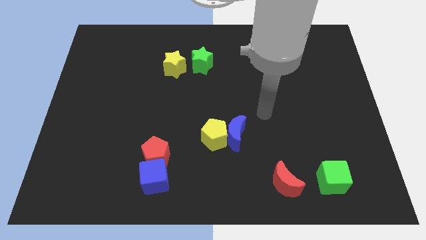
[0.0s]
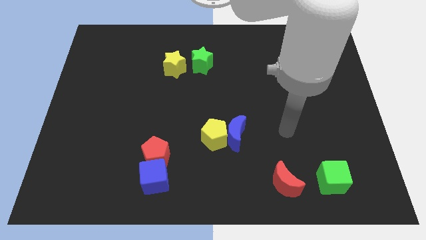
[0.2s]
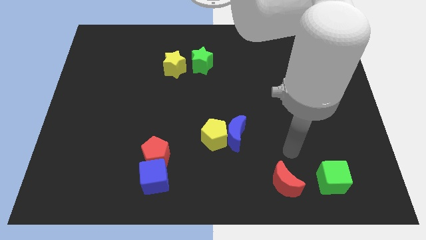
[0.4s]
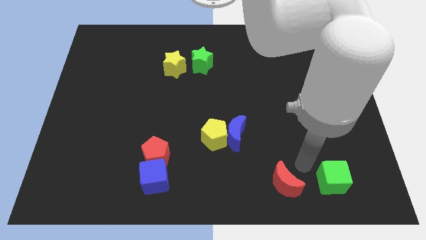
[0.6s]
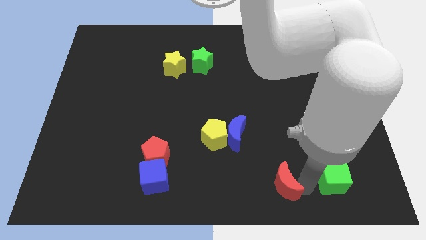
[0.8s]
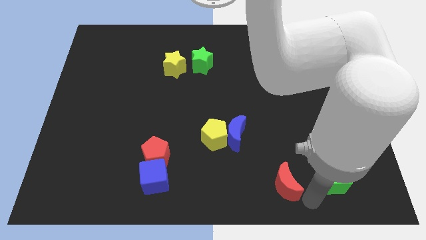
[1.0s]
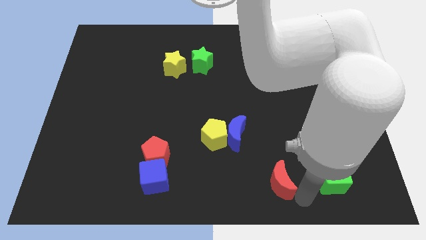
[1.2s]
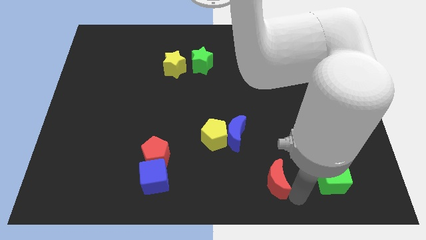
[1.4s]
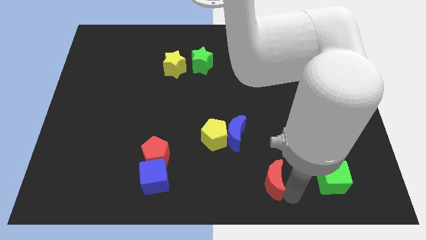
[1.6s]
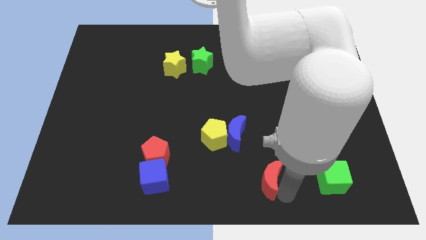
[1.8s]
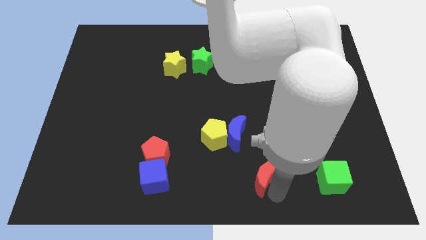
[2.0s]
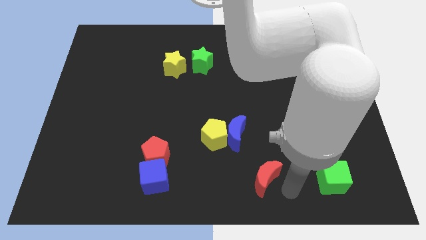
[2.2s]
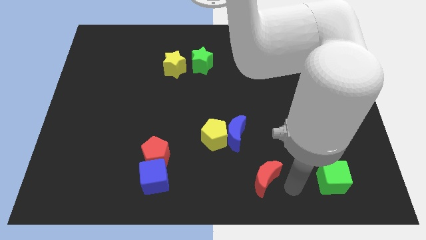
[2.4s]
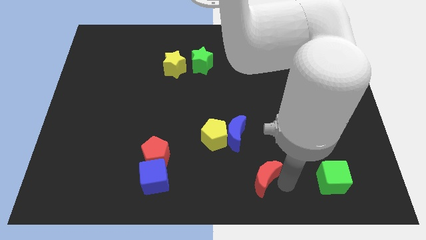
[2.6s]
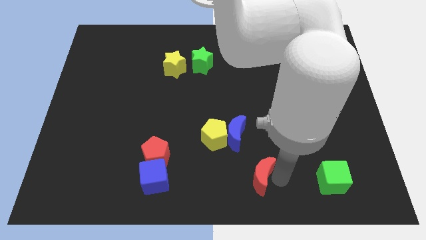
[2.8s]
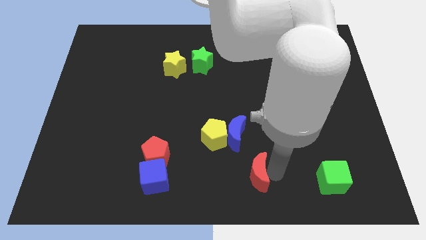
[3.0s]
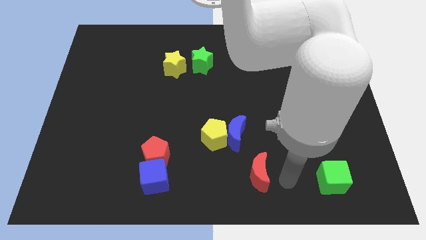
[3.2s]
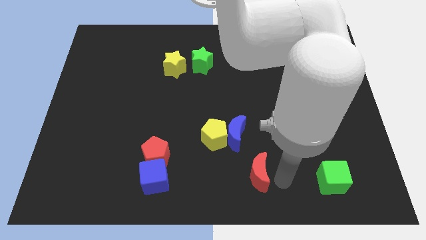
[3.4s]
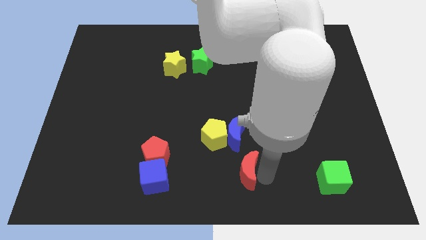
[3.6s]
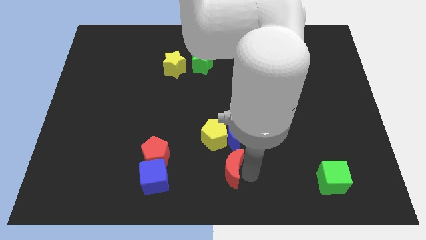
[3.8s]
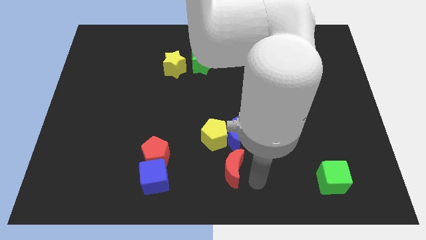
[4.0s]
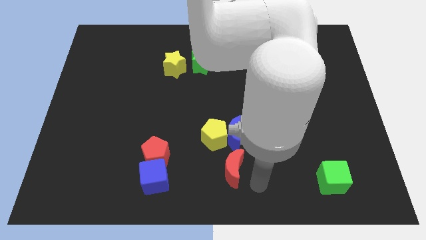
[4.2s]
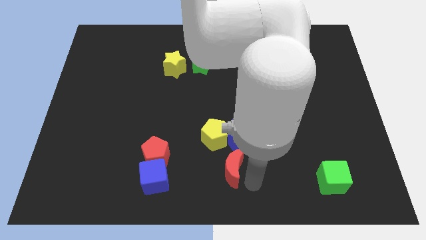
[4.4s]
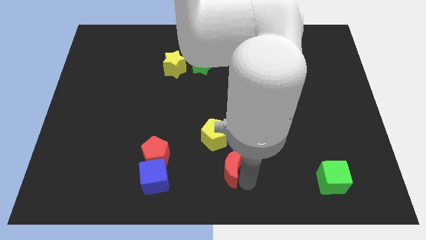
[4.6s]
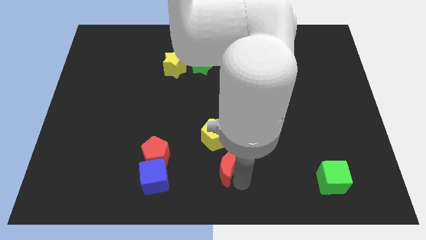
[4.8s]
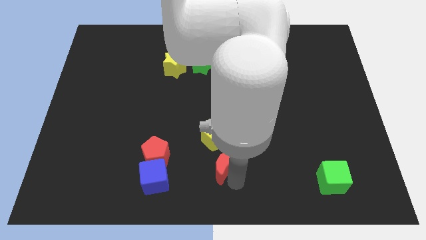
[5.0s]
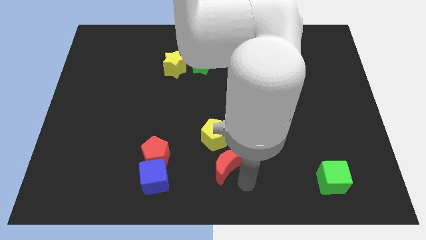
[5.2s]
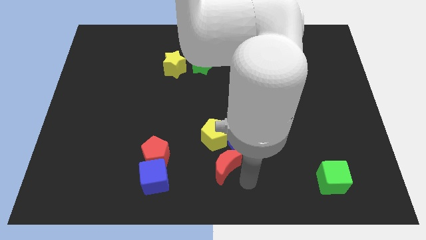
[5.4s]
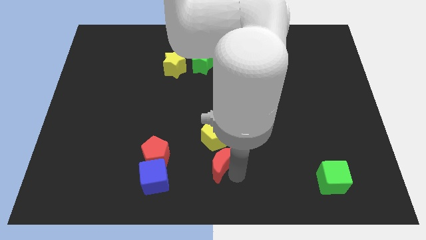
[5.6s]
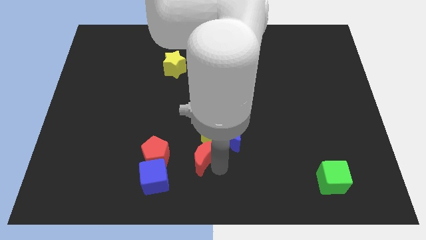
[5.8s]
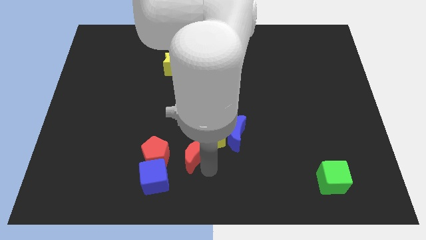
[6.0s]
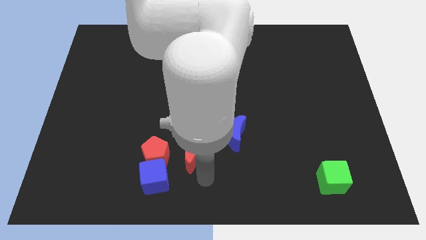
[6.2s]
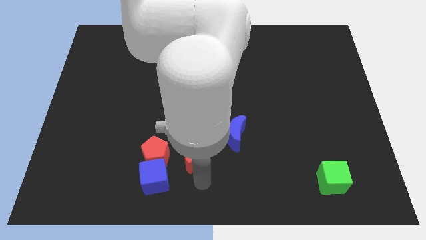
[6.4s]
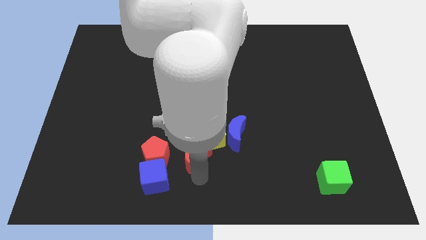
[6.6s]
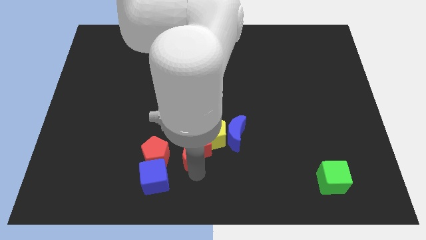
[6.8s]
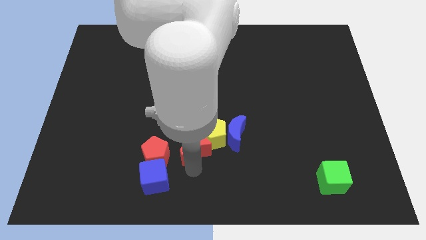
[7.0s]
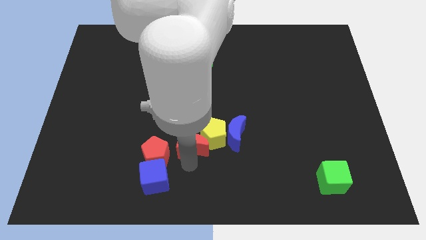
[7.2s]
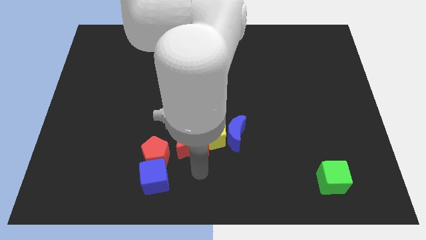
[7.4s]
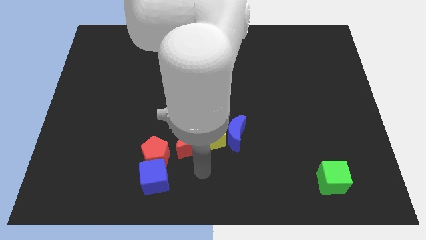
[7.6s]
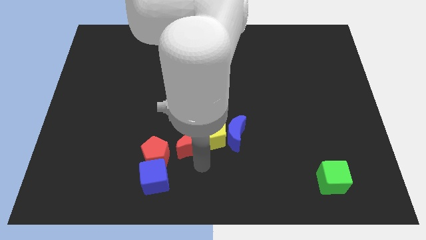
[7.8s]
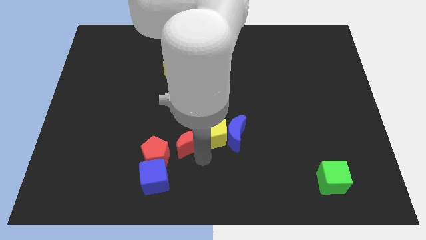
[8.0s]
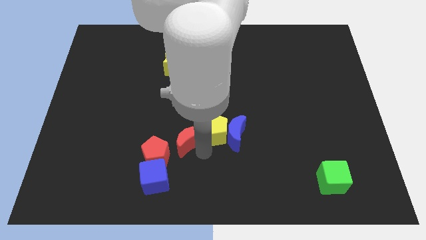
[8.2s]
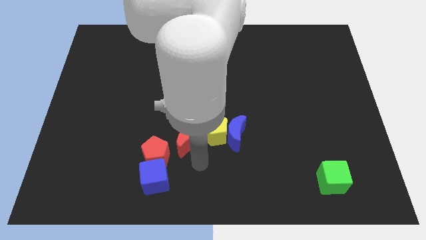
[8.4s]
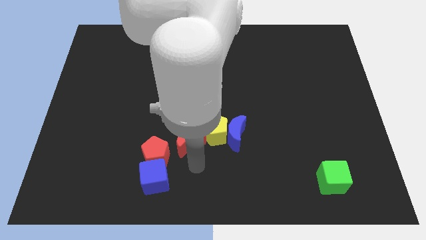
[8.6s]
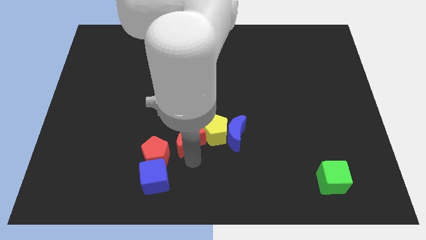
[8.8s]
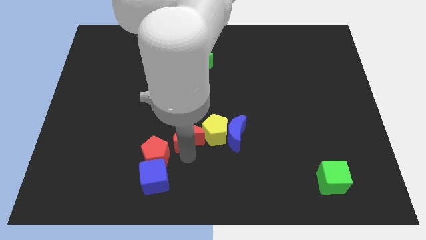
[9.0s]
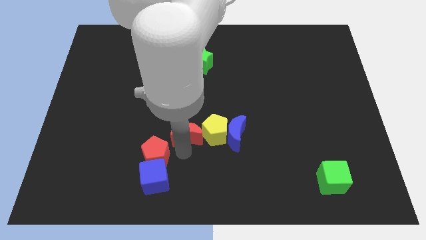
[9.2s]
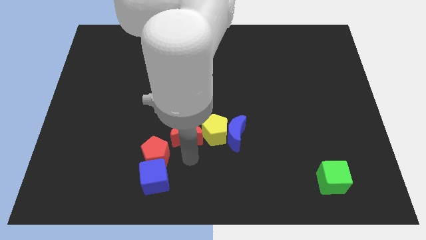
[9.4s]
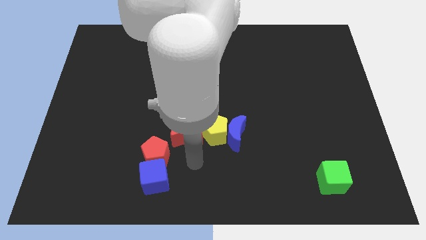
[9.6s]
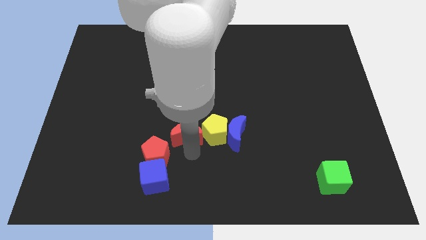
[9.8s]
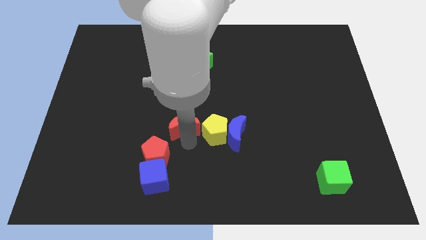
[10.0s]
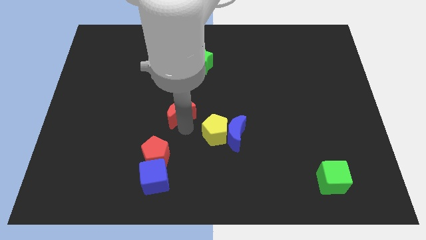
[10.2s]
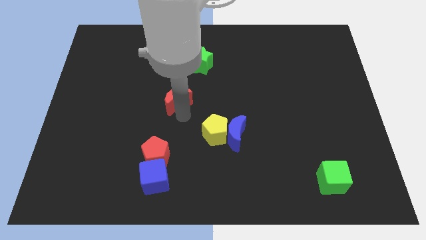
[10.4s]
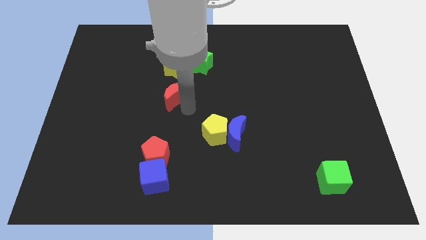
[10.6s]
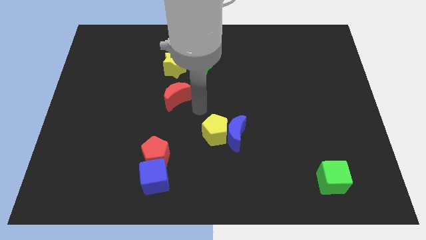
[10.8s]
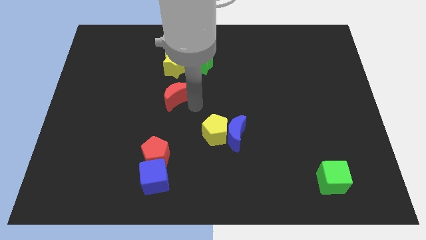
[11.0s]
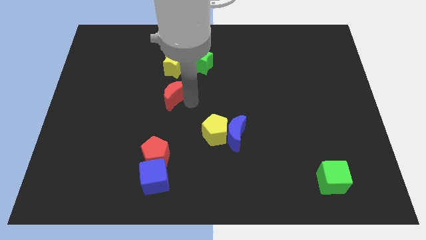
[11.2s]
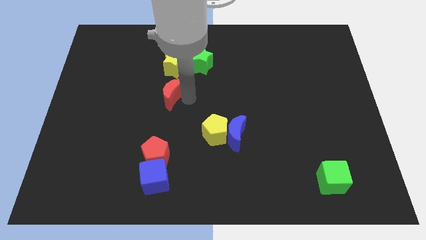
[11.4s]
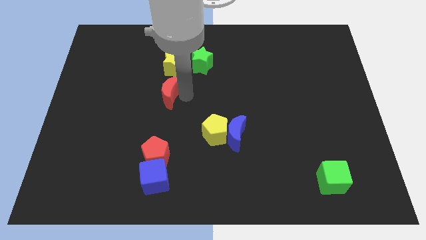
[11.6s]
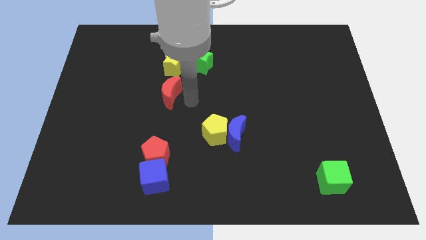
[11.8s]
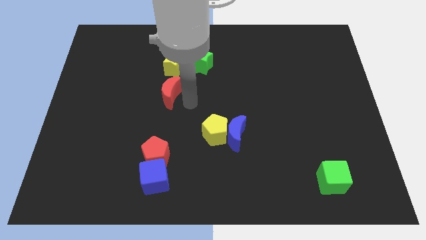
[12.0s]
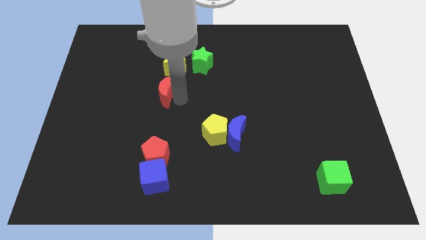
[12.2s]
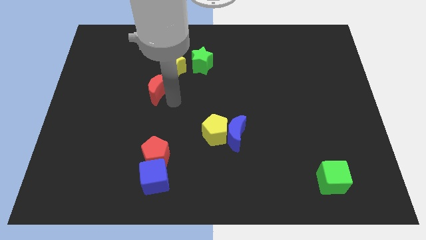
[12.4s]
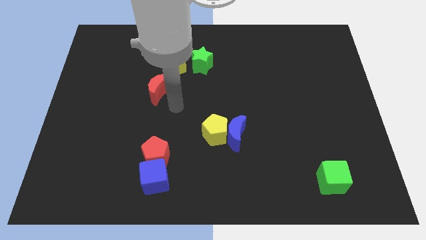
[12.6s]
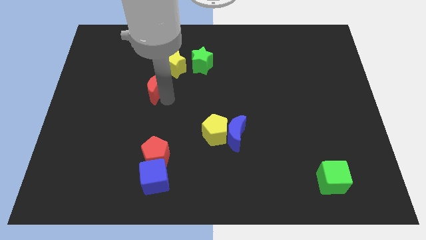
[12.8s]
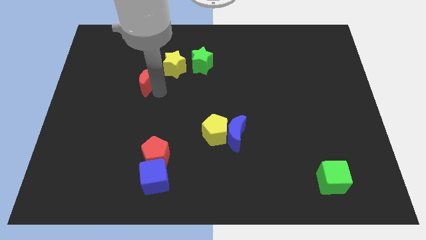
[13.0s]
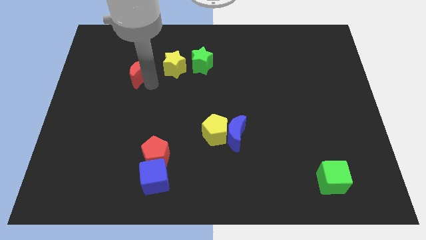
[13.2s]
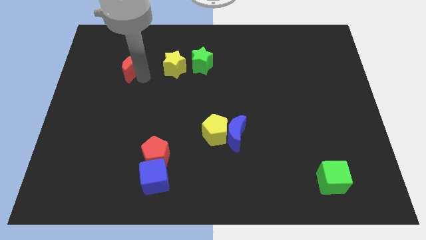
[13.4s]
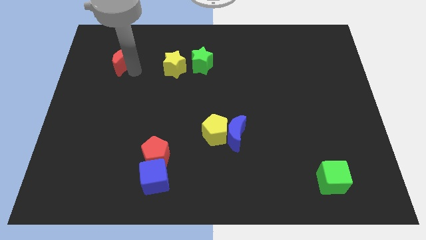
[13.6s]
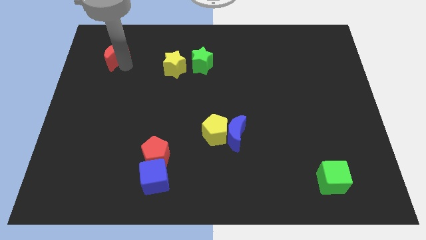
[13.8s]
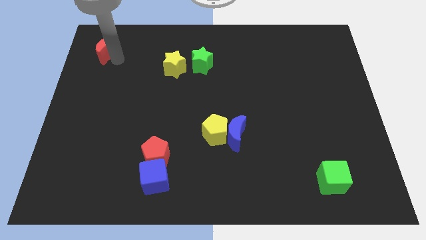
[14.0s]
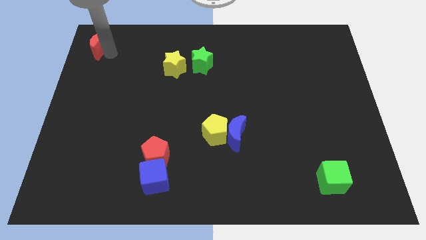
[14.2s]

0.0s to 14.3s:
push the red moon to the top left corner
